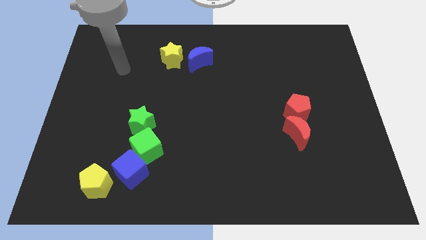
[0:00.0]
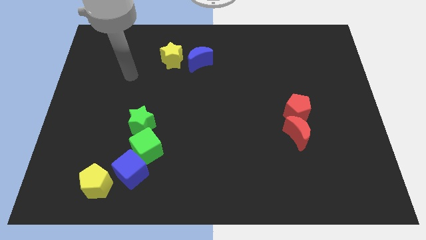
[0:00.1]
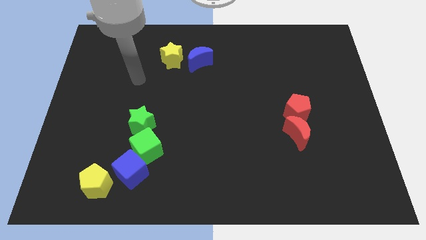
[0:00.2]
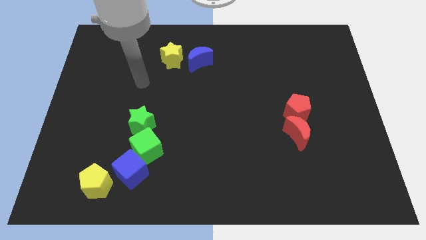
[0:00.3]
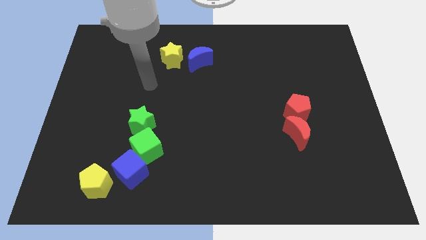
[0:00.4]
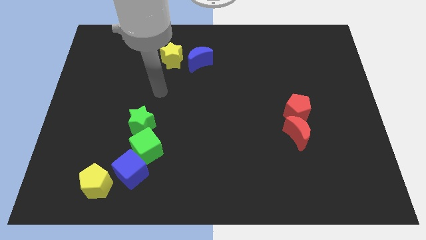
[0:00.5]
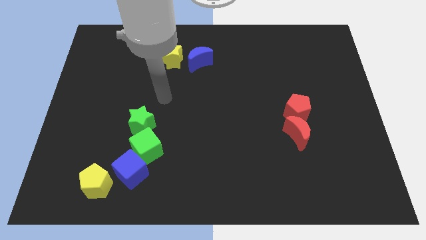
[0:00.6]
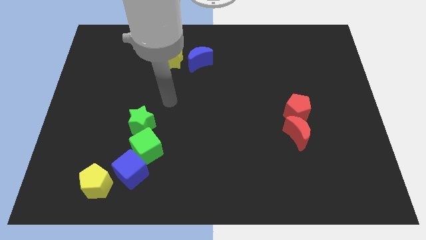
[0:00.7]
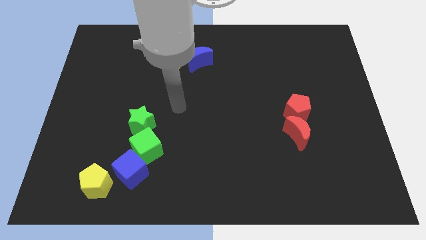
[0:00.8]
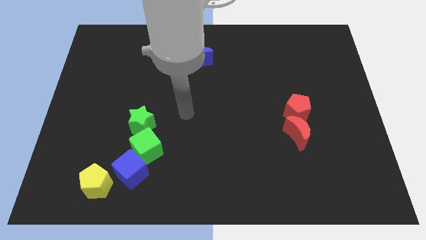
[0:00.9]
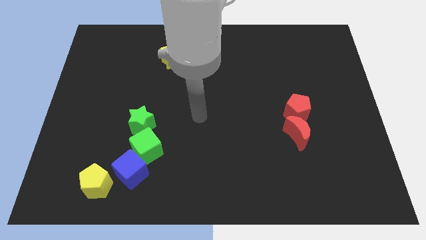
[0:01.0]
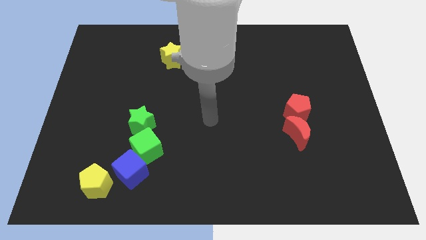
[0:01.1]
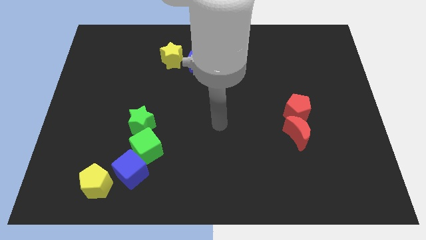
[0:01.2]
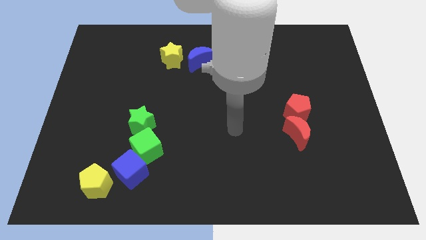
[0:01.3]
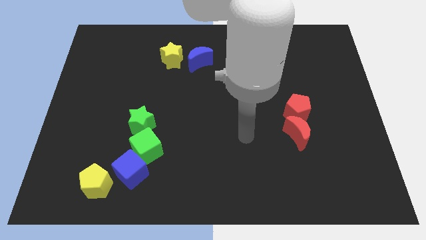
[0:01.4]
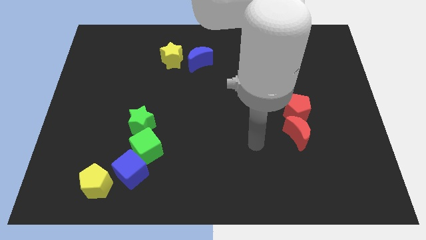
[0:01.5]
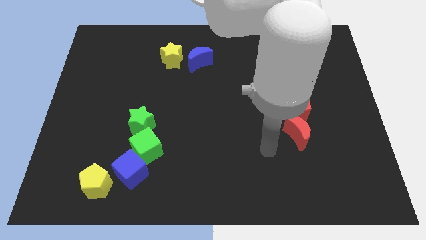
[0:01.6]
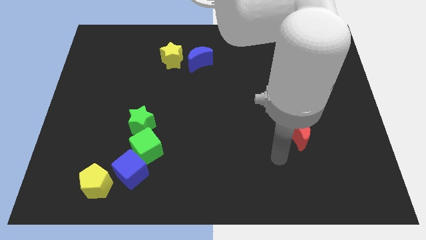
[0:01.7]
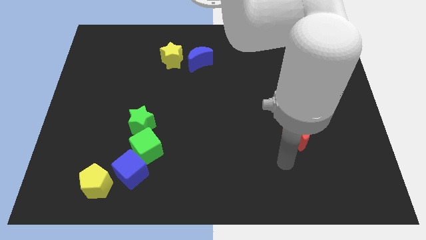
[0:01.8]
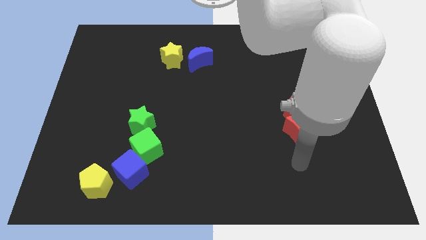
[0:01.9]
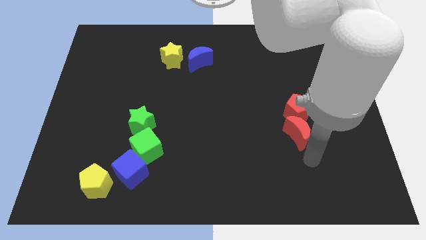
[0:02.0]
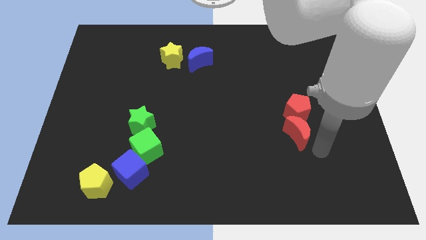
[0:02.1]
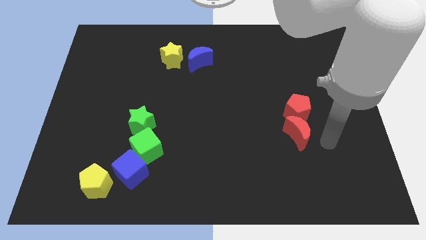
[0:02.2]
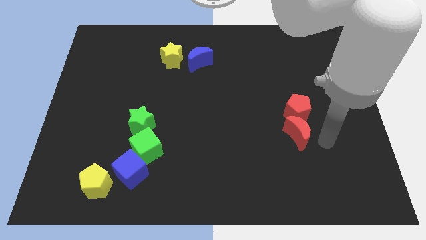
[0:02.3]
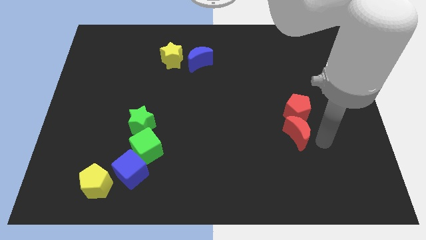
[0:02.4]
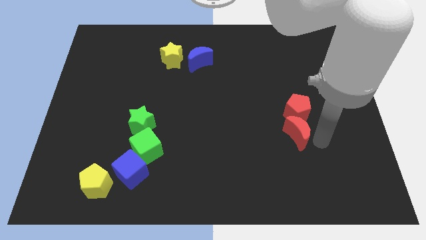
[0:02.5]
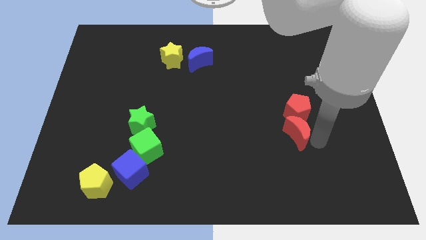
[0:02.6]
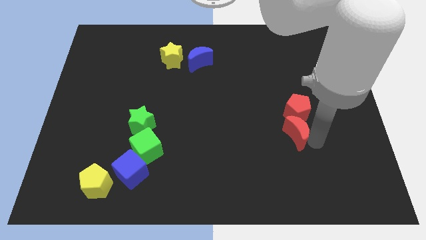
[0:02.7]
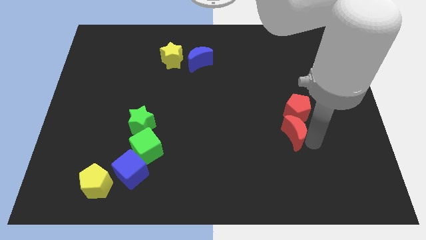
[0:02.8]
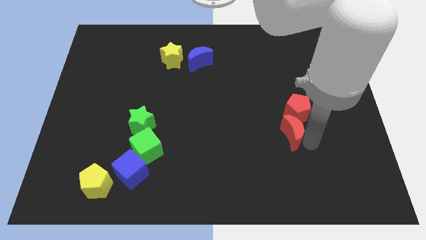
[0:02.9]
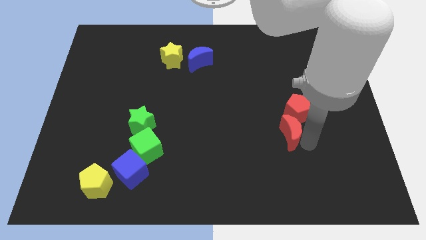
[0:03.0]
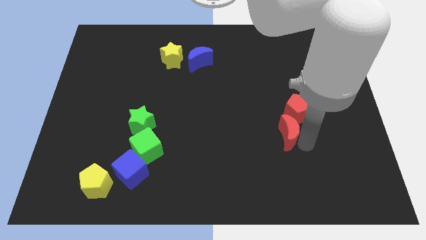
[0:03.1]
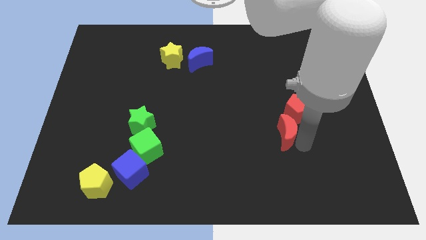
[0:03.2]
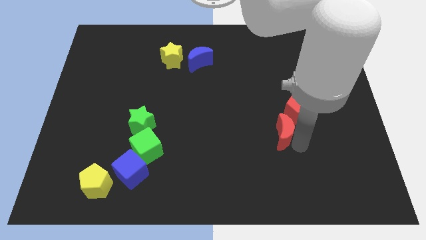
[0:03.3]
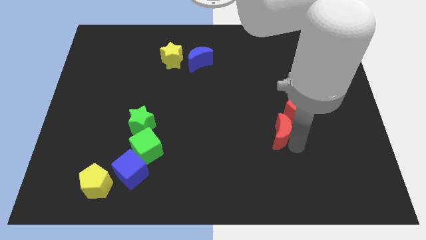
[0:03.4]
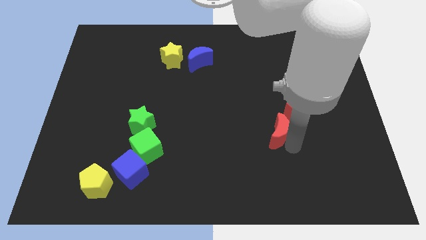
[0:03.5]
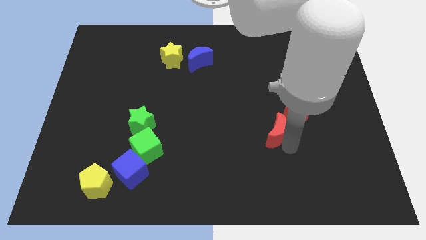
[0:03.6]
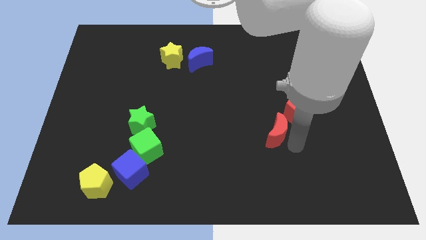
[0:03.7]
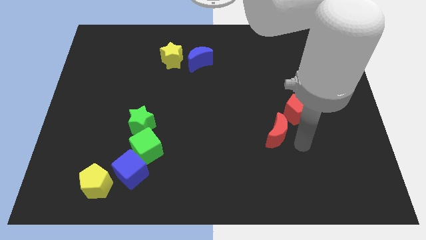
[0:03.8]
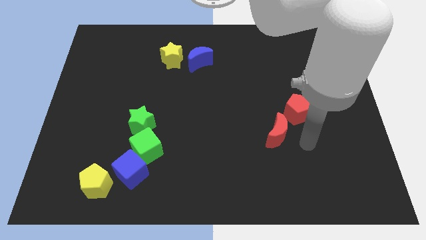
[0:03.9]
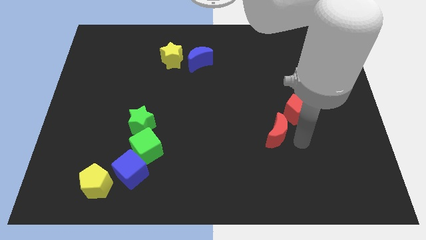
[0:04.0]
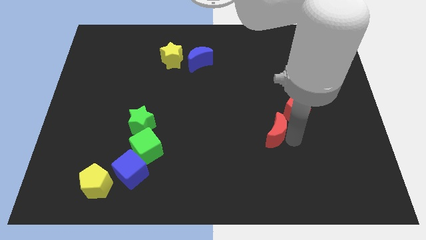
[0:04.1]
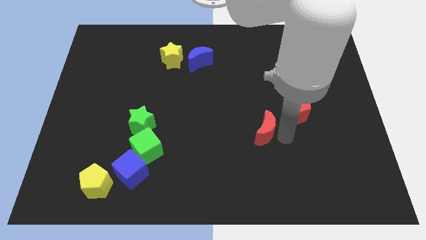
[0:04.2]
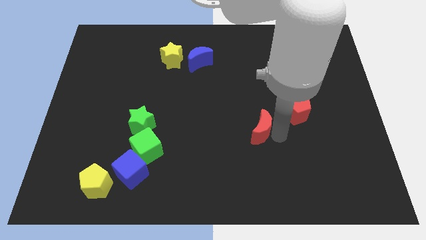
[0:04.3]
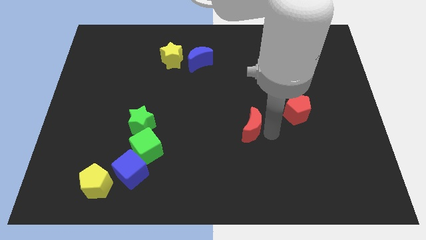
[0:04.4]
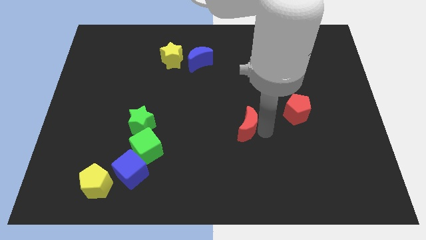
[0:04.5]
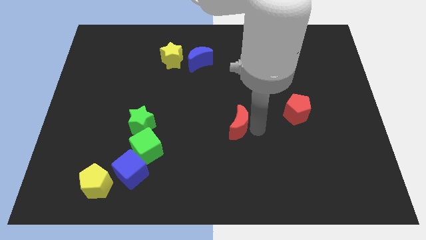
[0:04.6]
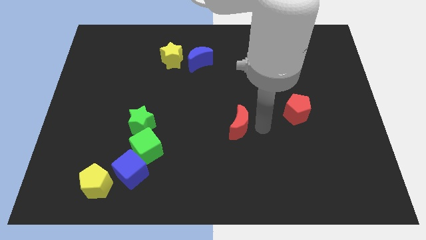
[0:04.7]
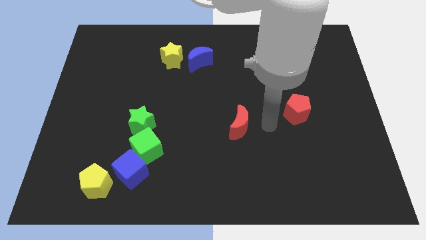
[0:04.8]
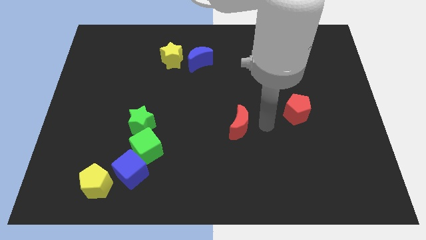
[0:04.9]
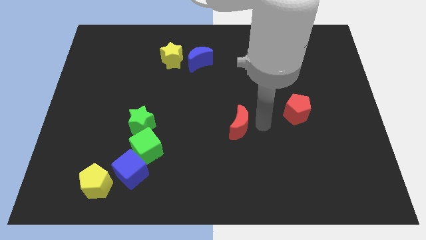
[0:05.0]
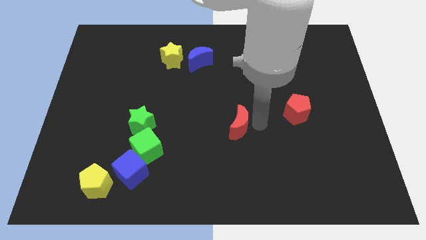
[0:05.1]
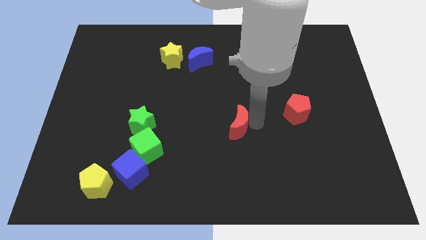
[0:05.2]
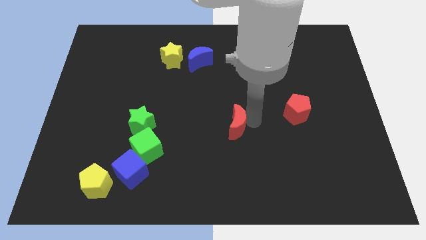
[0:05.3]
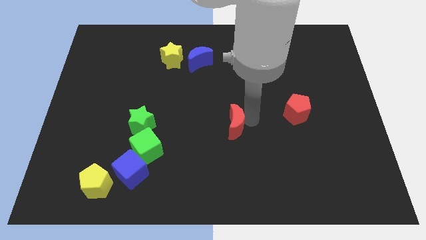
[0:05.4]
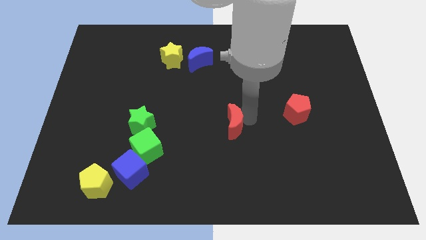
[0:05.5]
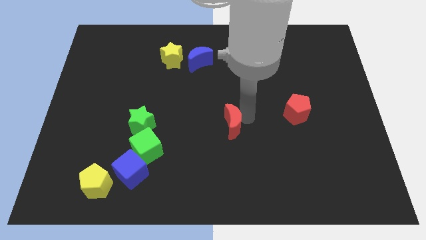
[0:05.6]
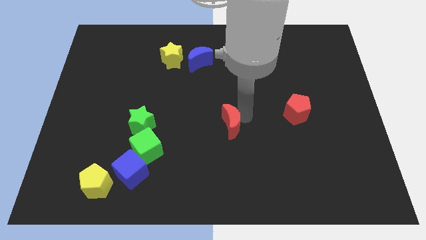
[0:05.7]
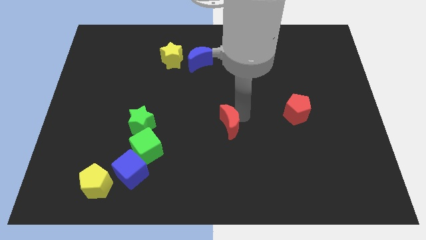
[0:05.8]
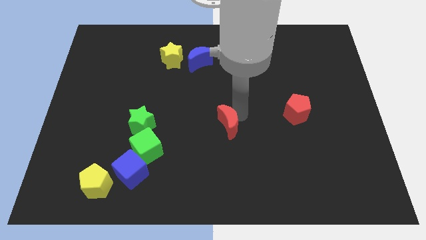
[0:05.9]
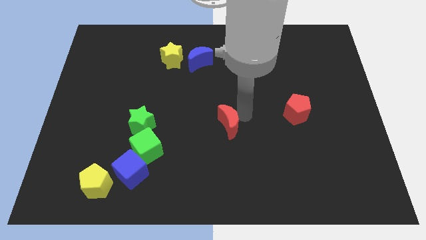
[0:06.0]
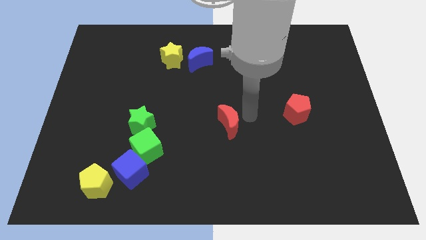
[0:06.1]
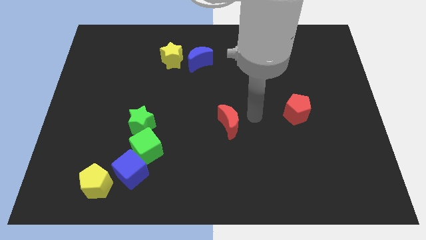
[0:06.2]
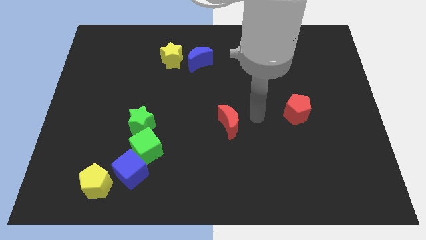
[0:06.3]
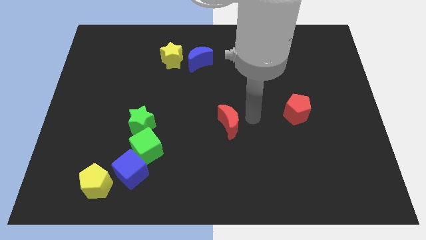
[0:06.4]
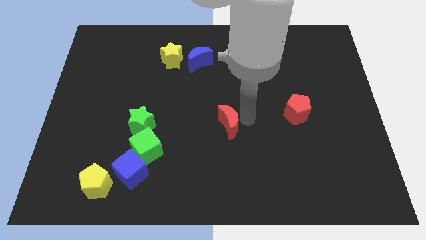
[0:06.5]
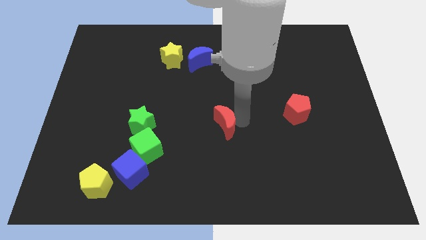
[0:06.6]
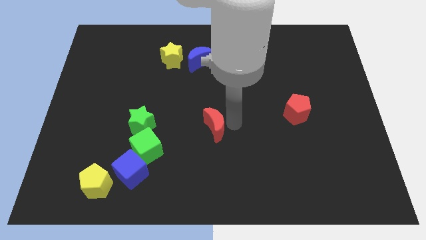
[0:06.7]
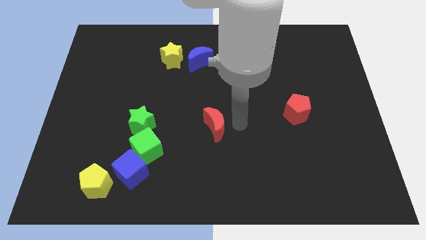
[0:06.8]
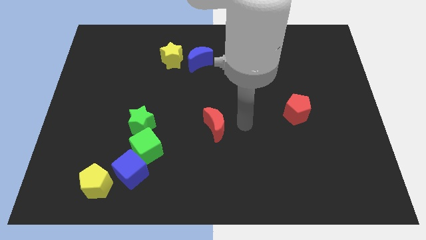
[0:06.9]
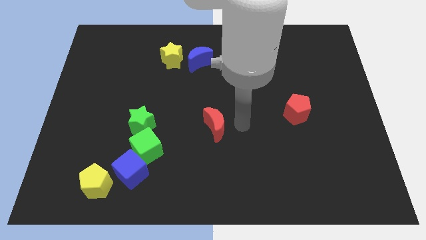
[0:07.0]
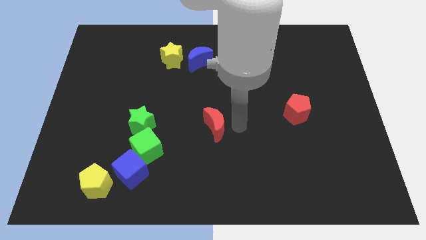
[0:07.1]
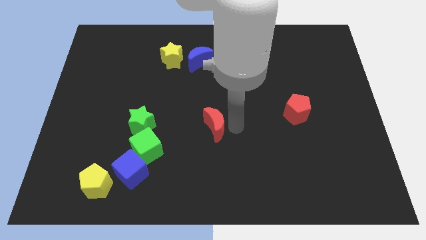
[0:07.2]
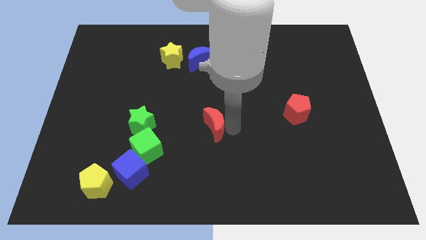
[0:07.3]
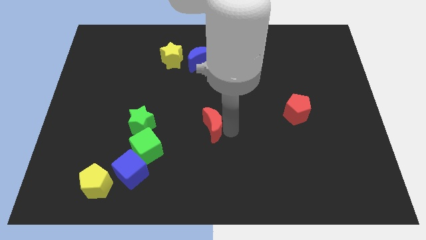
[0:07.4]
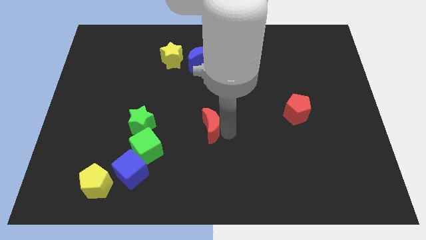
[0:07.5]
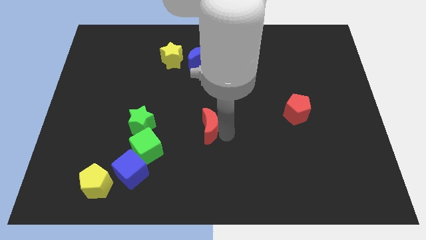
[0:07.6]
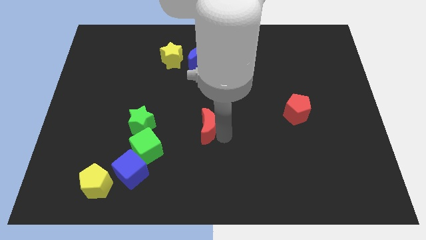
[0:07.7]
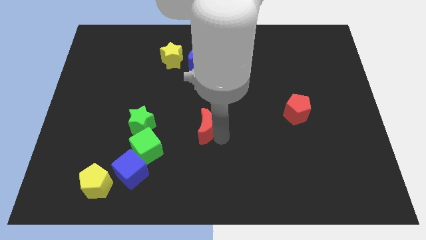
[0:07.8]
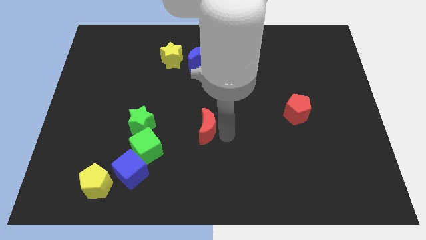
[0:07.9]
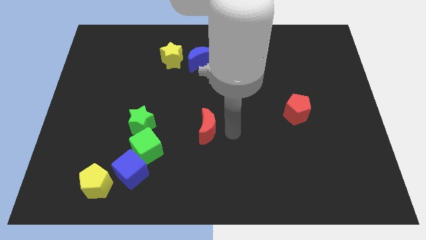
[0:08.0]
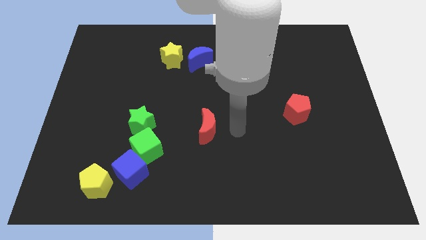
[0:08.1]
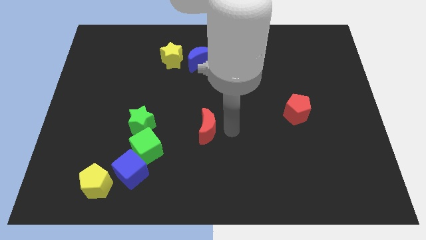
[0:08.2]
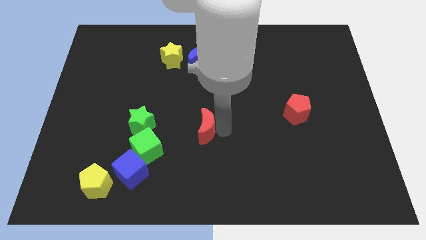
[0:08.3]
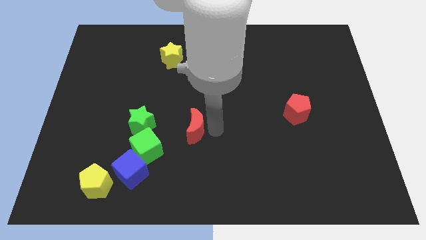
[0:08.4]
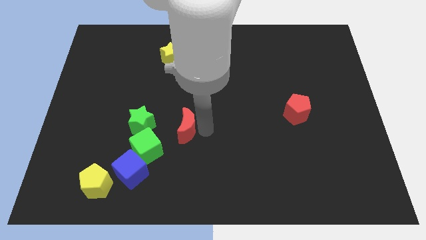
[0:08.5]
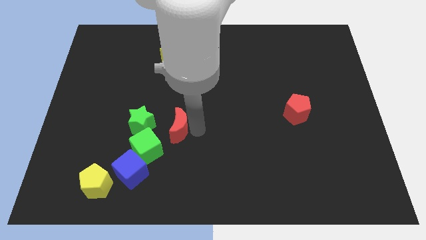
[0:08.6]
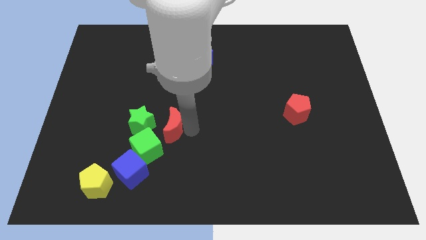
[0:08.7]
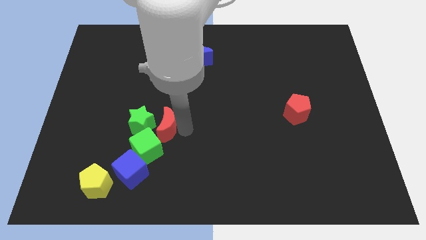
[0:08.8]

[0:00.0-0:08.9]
move the red moon next to the green star
